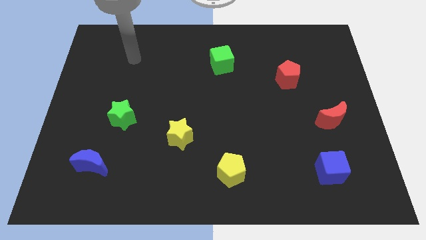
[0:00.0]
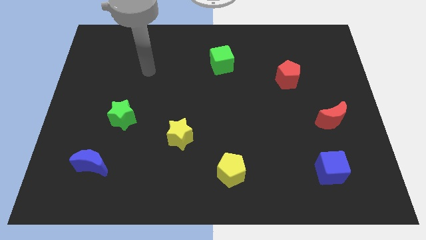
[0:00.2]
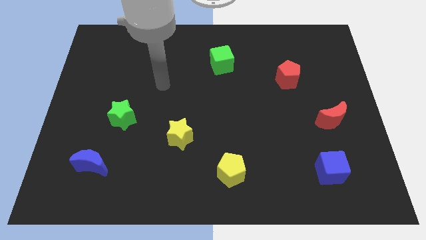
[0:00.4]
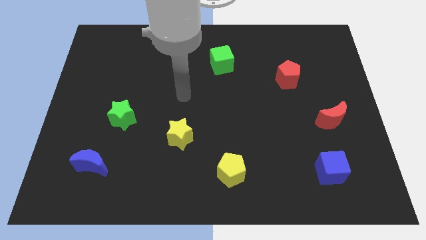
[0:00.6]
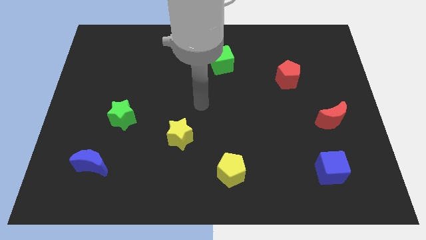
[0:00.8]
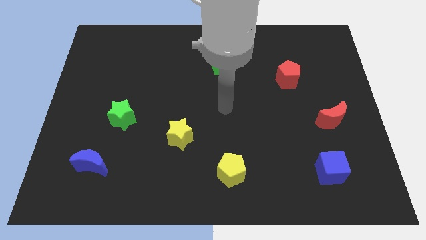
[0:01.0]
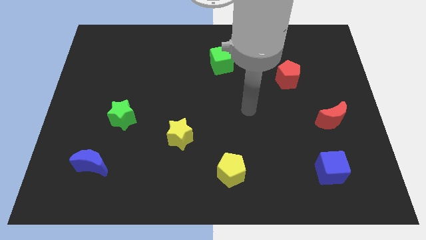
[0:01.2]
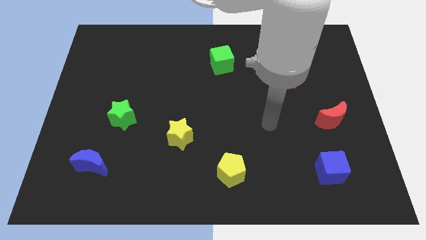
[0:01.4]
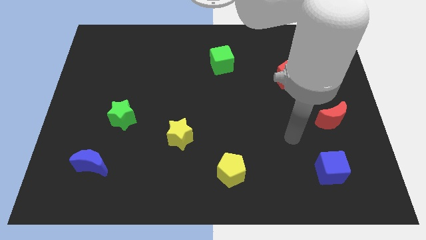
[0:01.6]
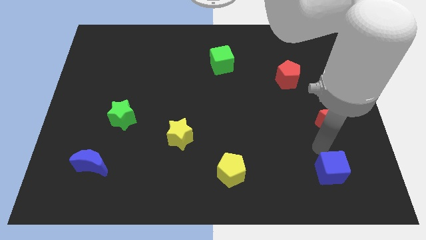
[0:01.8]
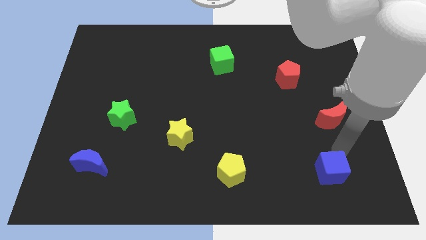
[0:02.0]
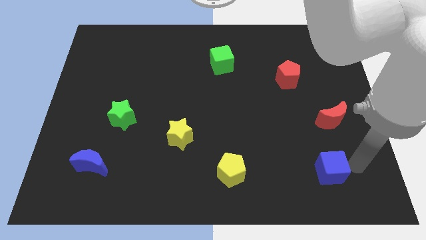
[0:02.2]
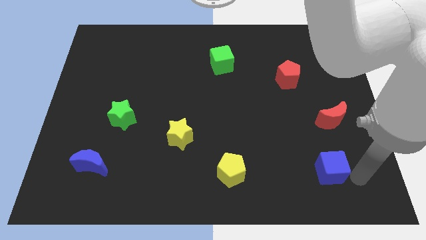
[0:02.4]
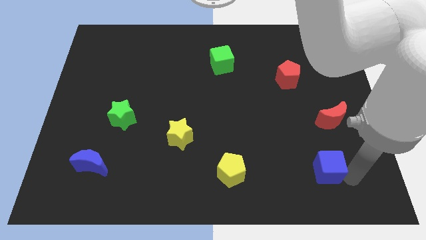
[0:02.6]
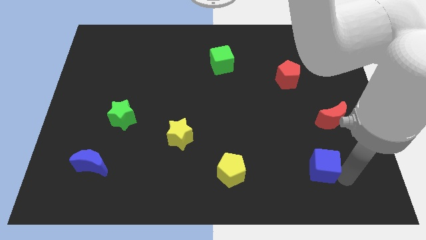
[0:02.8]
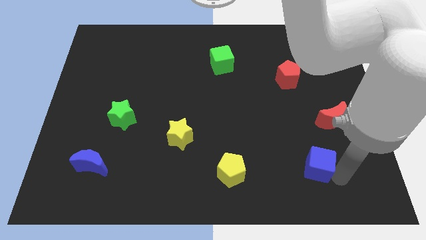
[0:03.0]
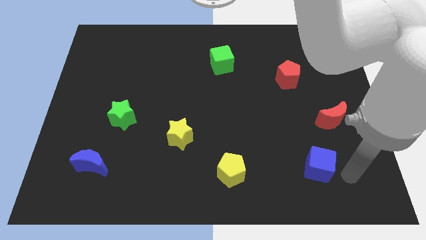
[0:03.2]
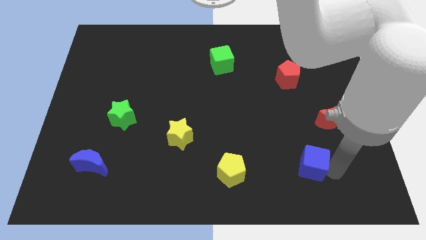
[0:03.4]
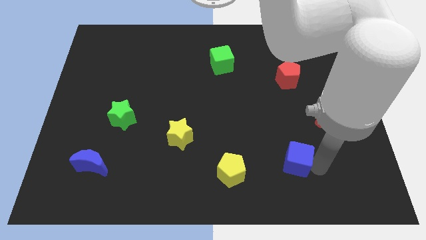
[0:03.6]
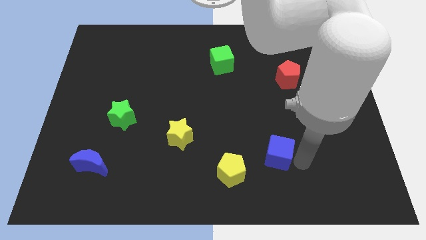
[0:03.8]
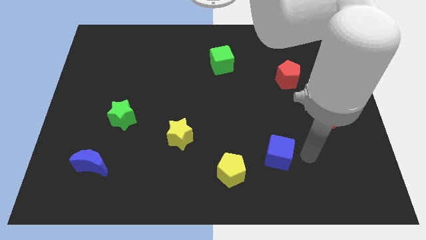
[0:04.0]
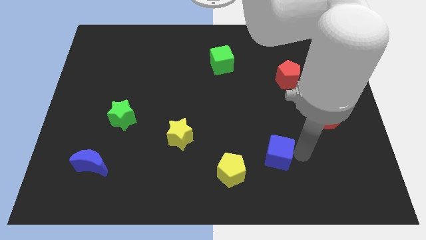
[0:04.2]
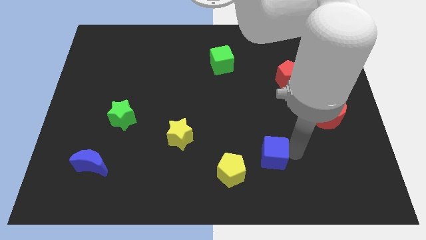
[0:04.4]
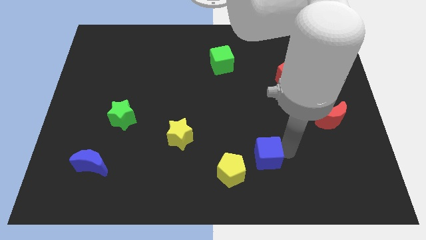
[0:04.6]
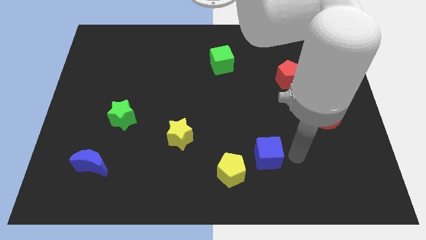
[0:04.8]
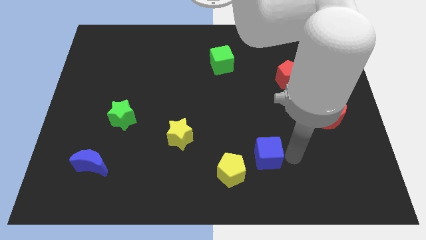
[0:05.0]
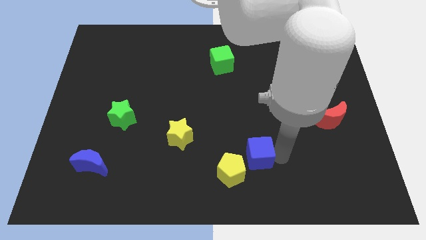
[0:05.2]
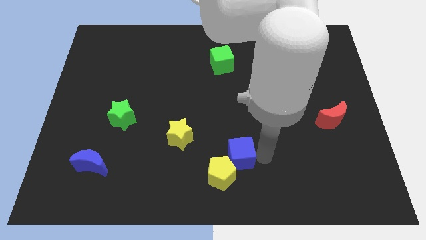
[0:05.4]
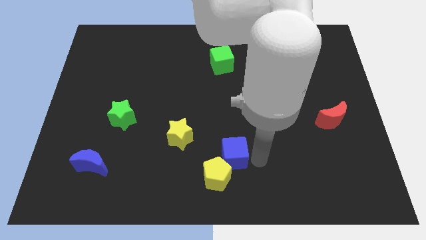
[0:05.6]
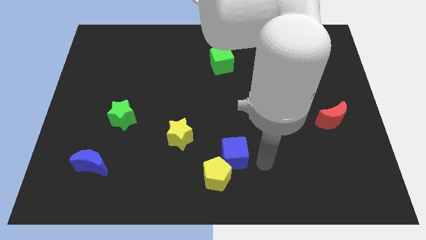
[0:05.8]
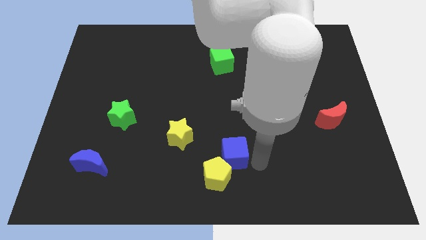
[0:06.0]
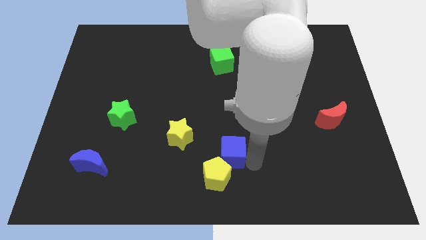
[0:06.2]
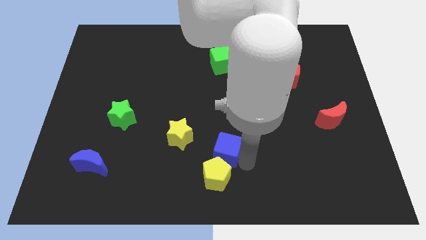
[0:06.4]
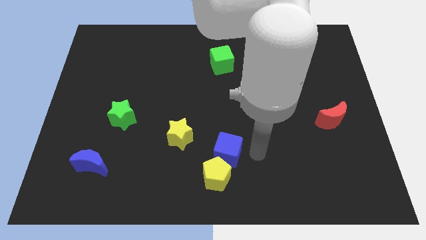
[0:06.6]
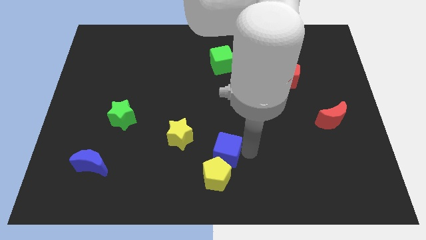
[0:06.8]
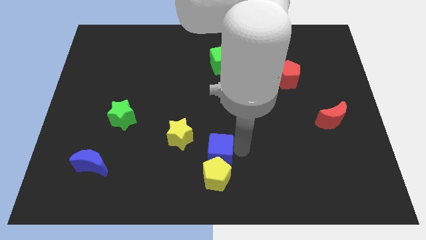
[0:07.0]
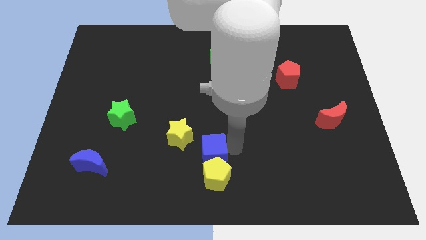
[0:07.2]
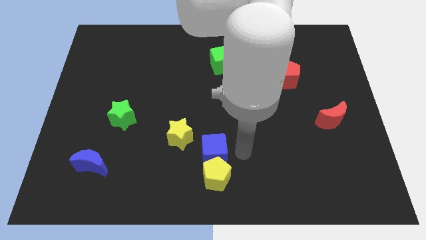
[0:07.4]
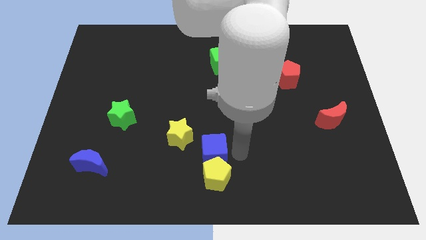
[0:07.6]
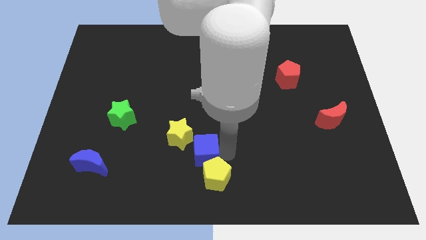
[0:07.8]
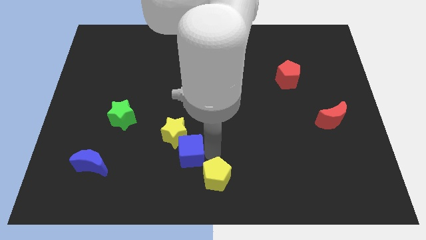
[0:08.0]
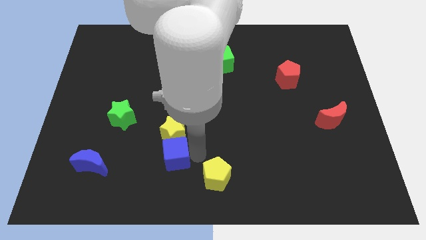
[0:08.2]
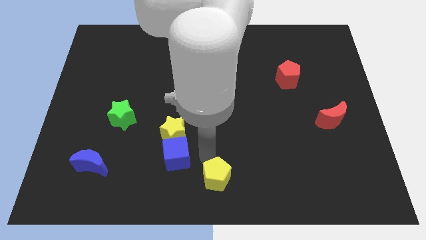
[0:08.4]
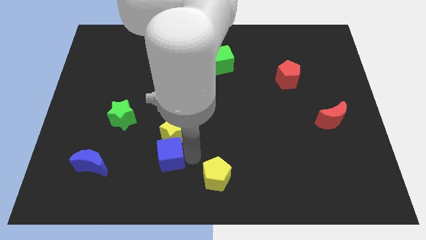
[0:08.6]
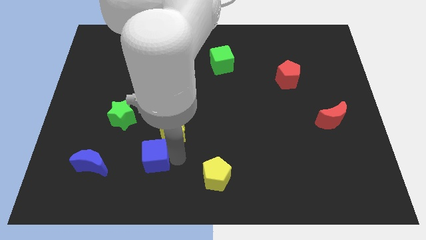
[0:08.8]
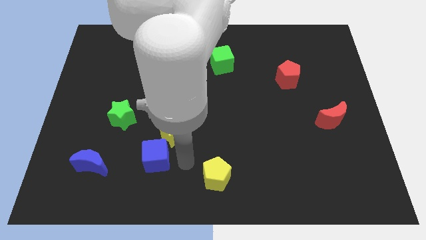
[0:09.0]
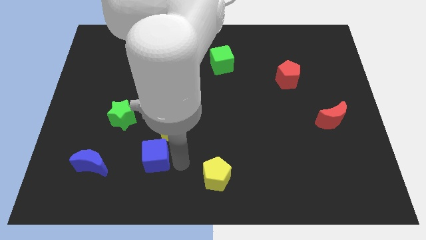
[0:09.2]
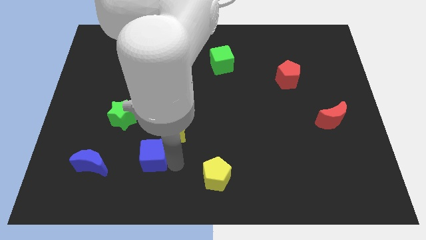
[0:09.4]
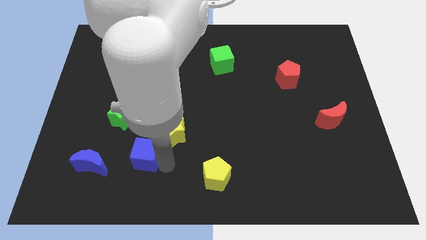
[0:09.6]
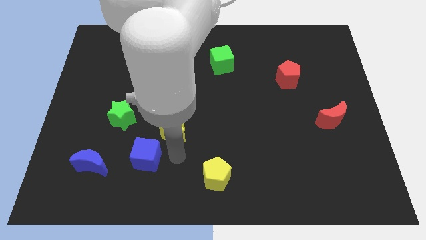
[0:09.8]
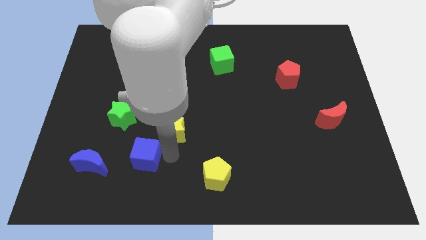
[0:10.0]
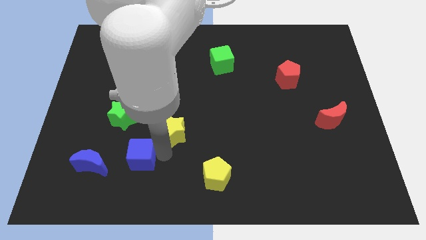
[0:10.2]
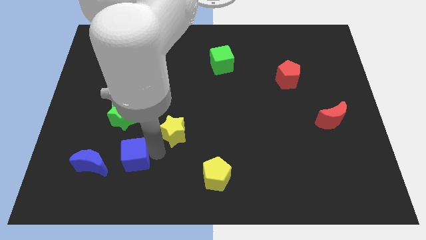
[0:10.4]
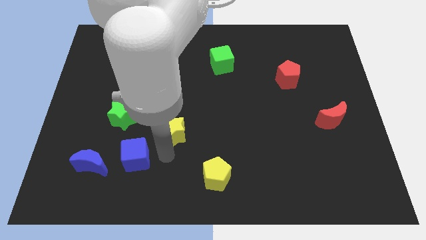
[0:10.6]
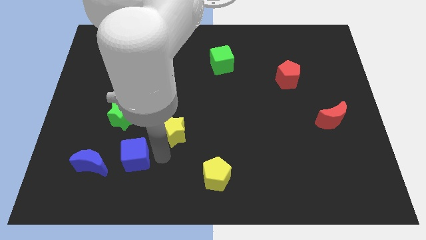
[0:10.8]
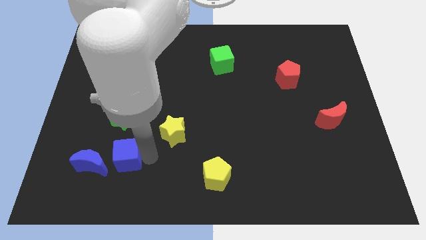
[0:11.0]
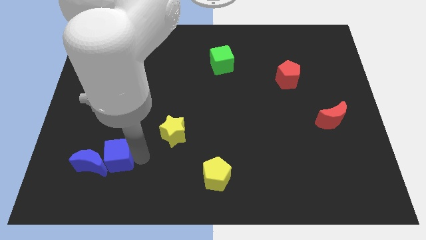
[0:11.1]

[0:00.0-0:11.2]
move the blue cube towards the blue moon

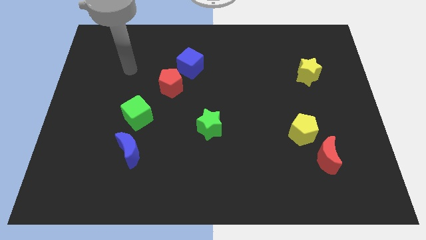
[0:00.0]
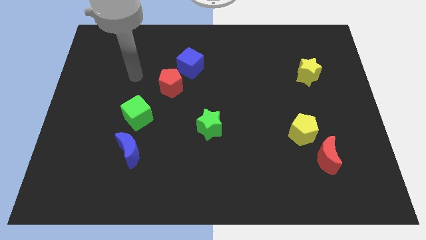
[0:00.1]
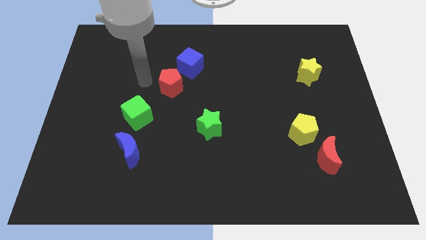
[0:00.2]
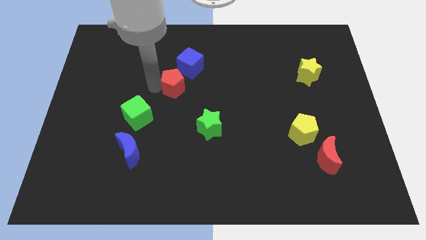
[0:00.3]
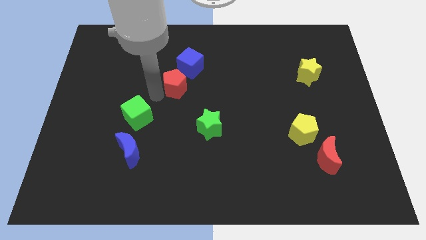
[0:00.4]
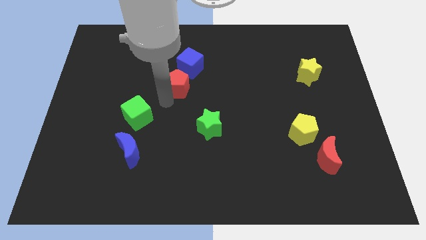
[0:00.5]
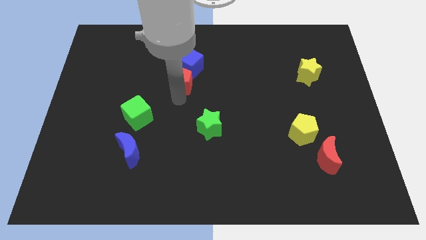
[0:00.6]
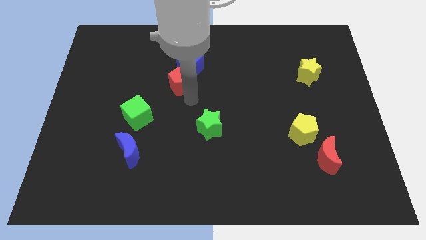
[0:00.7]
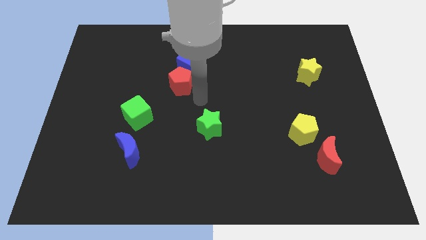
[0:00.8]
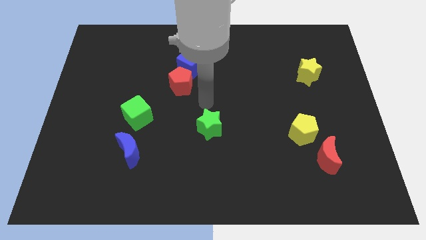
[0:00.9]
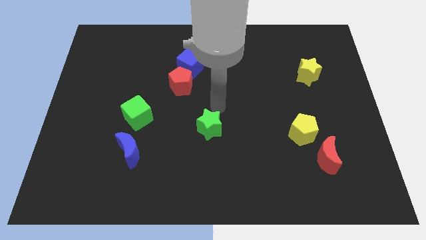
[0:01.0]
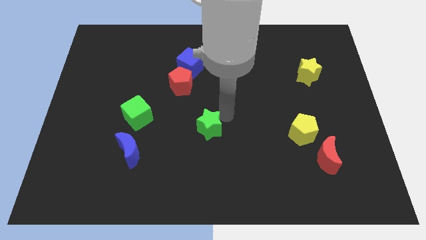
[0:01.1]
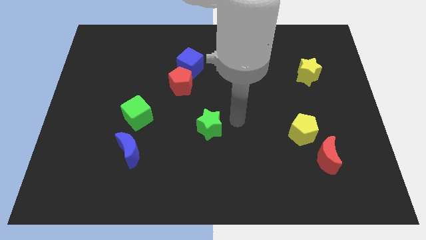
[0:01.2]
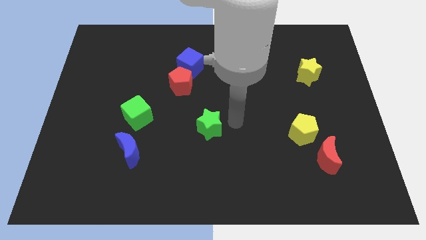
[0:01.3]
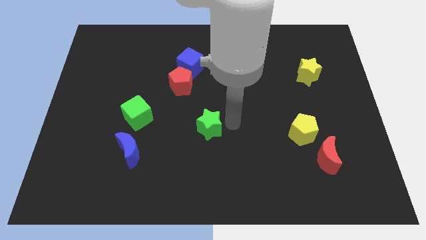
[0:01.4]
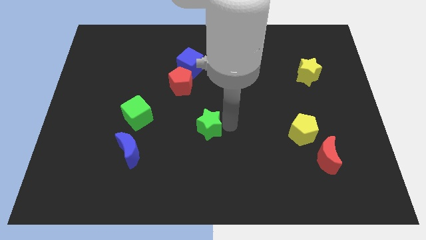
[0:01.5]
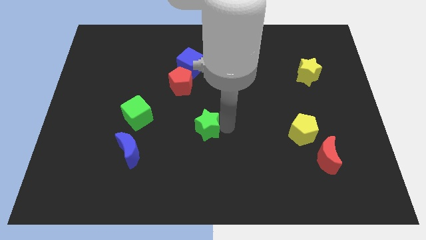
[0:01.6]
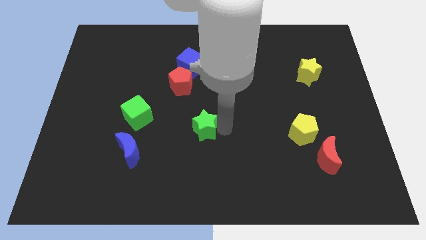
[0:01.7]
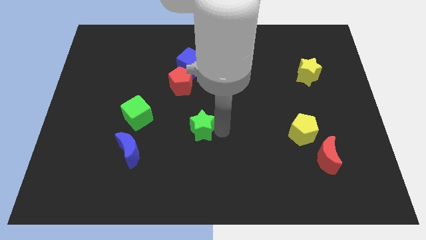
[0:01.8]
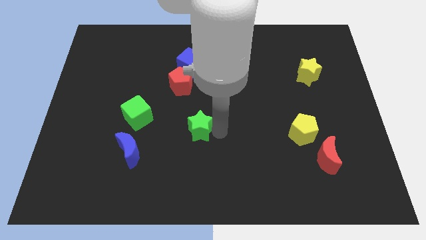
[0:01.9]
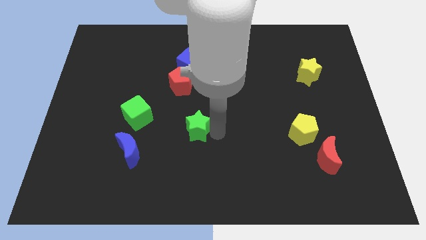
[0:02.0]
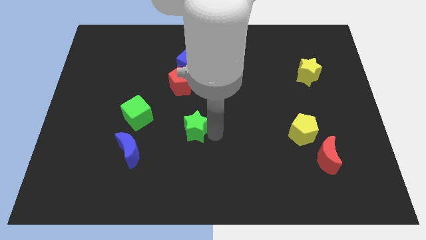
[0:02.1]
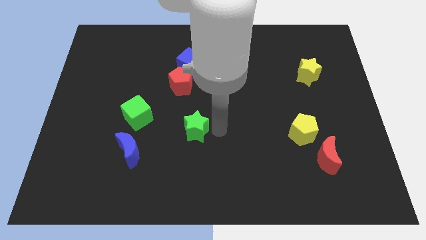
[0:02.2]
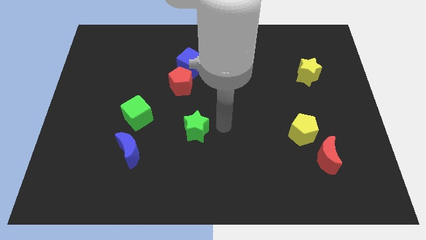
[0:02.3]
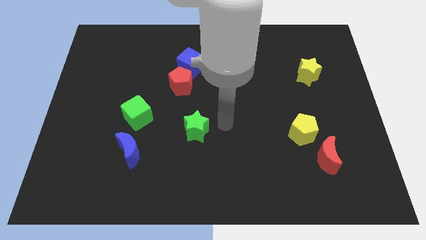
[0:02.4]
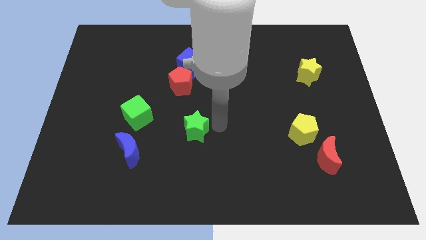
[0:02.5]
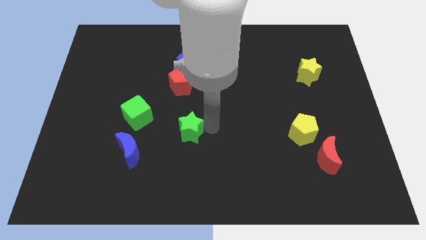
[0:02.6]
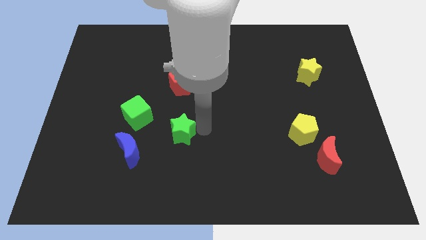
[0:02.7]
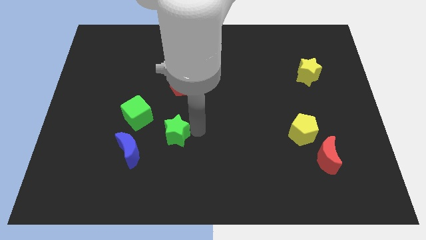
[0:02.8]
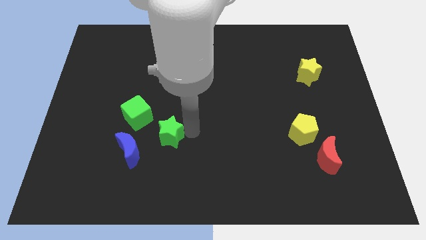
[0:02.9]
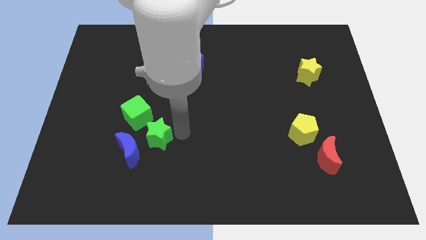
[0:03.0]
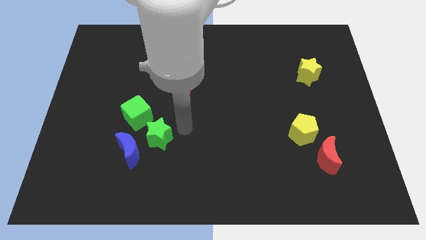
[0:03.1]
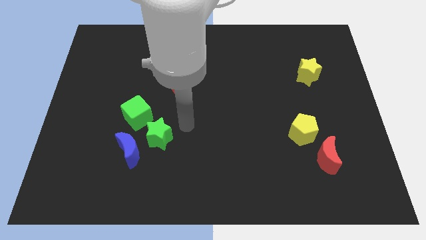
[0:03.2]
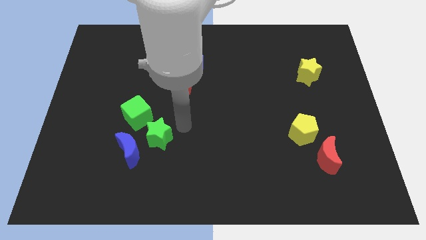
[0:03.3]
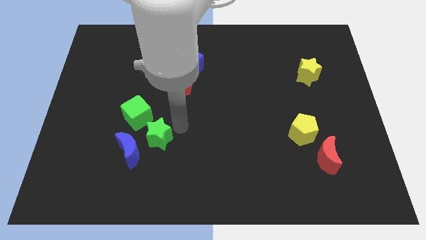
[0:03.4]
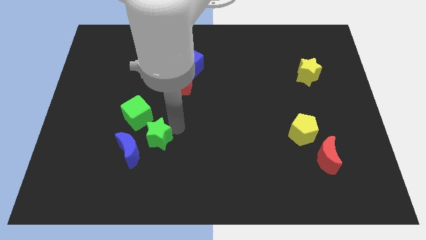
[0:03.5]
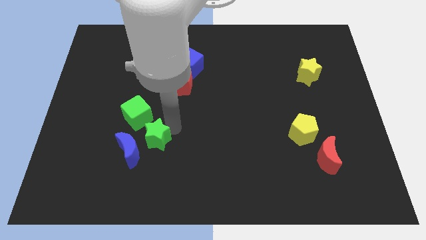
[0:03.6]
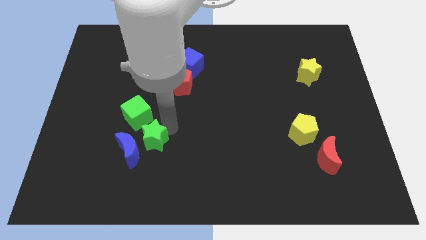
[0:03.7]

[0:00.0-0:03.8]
put the green star next to the blue moon
